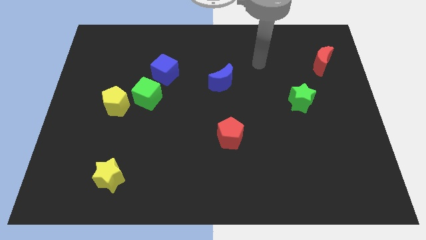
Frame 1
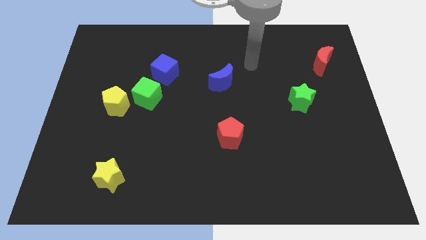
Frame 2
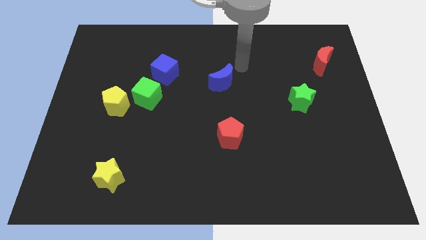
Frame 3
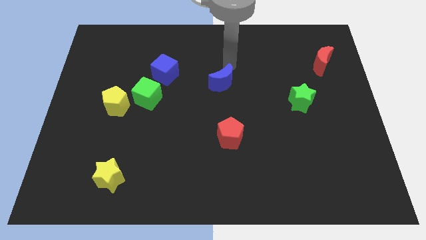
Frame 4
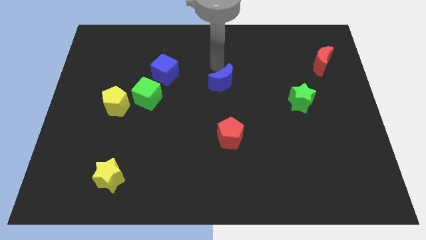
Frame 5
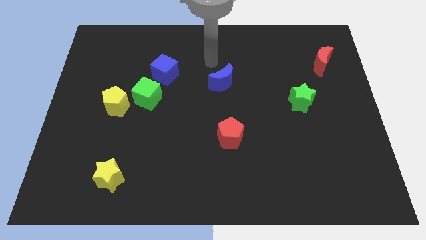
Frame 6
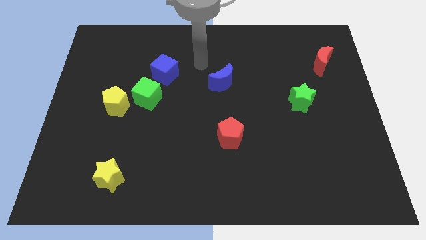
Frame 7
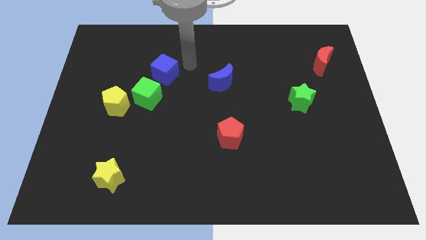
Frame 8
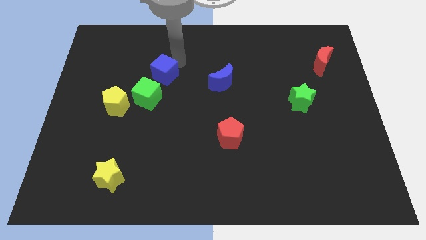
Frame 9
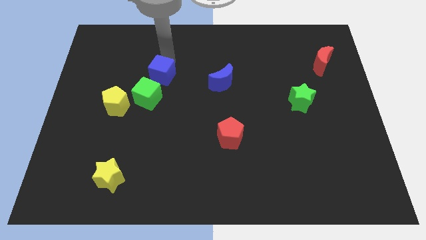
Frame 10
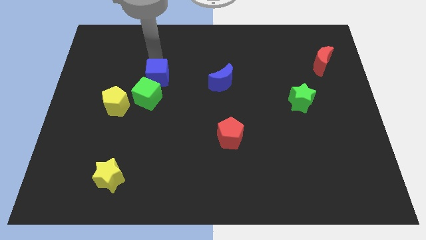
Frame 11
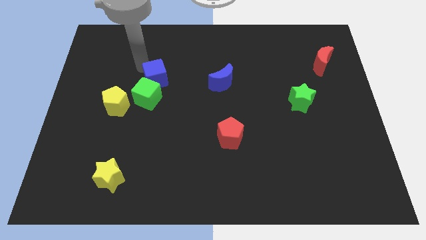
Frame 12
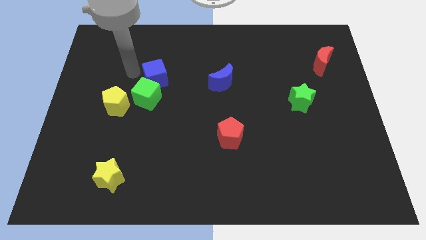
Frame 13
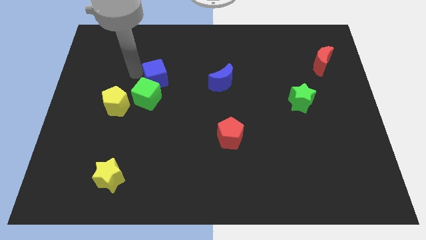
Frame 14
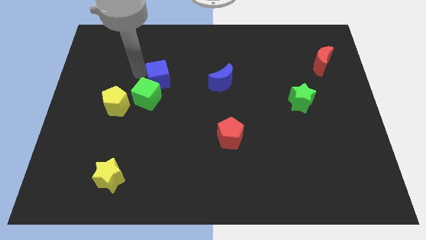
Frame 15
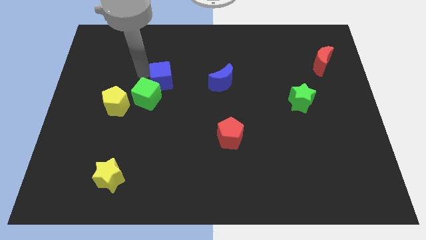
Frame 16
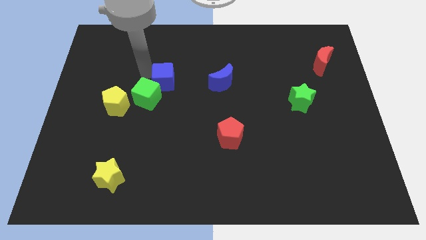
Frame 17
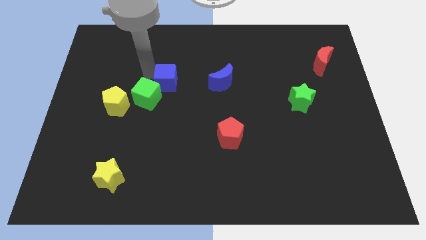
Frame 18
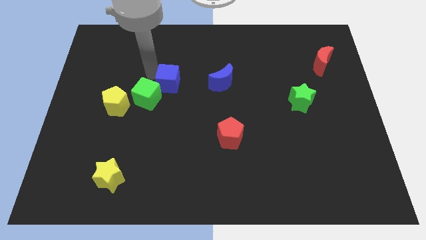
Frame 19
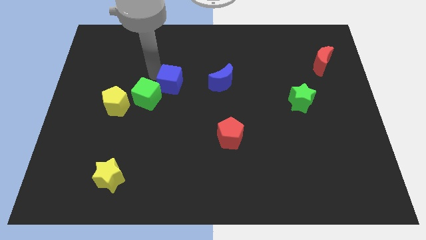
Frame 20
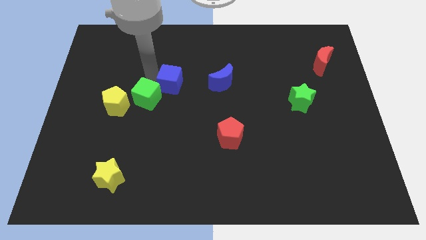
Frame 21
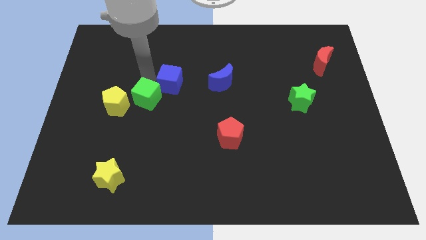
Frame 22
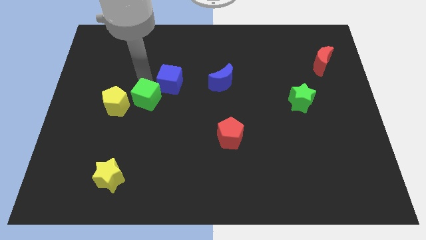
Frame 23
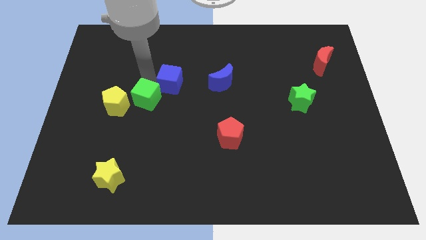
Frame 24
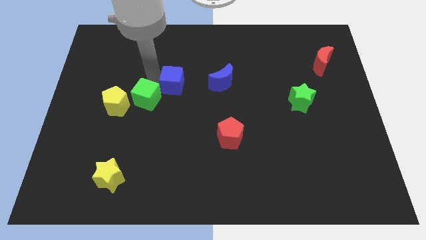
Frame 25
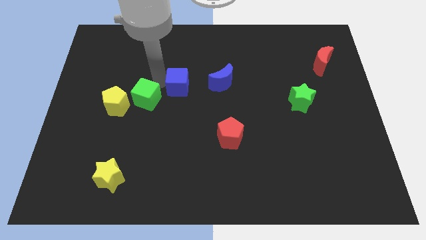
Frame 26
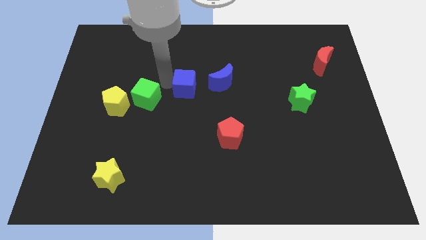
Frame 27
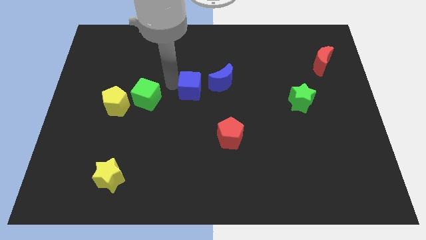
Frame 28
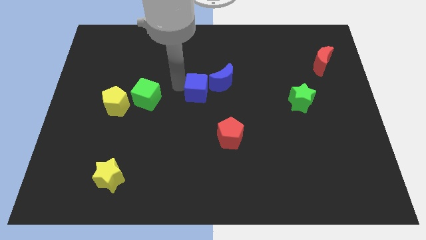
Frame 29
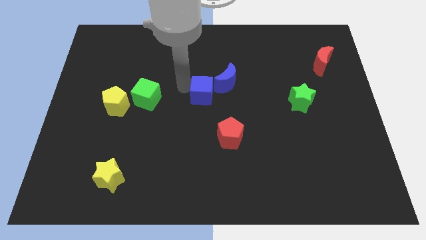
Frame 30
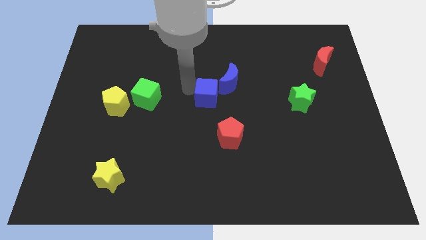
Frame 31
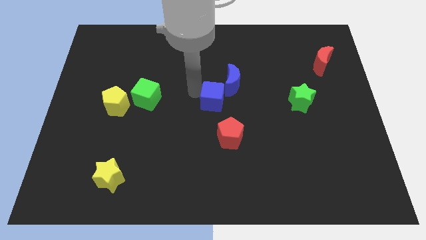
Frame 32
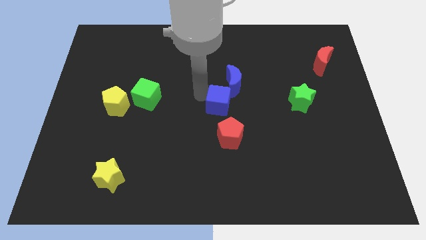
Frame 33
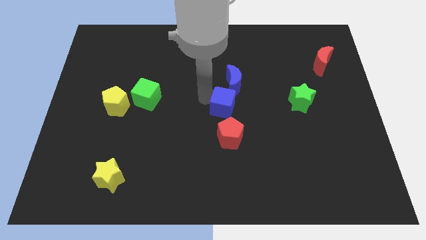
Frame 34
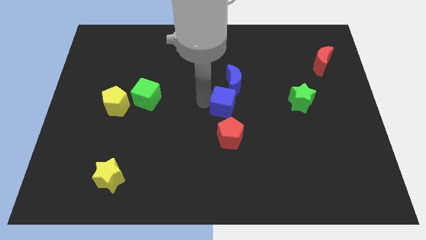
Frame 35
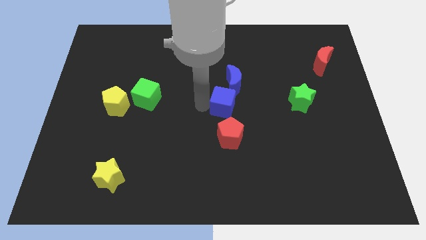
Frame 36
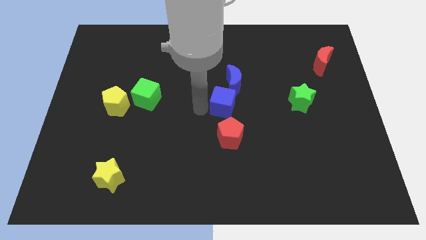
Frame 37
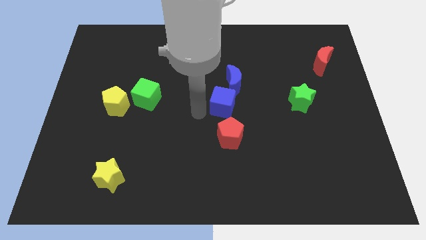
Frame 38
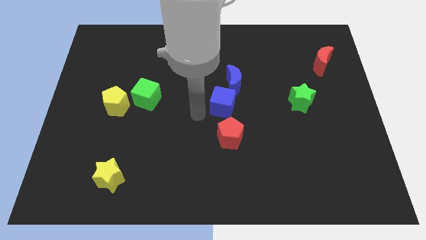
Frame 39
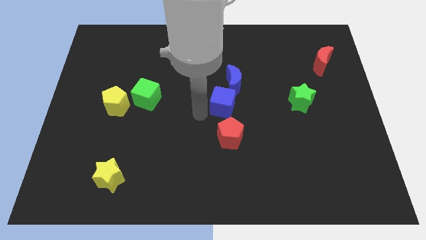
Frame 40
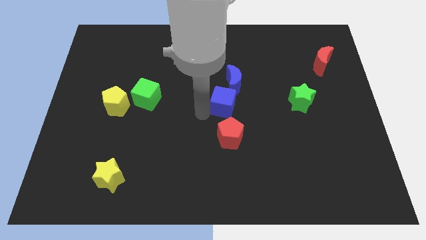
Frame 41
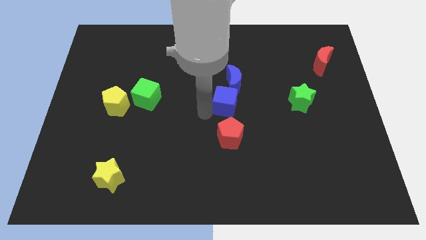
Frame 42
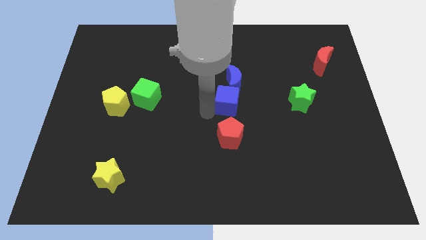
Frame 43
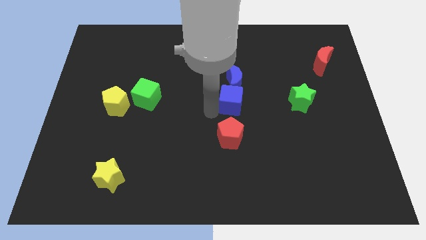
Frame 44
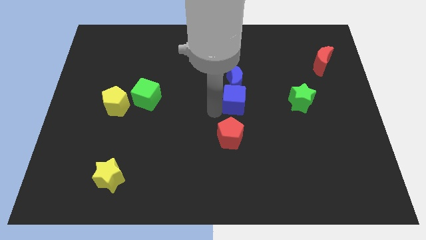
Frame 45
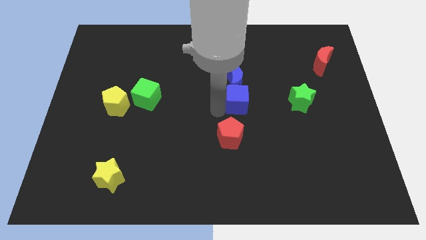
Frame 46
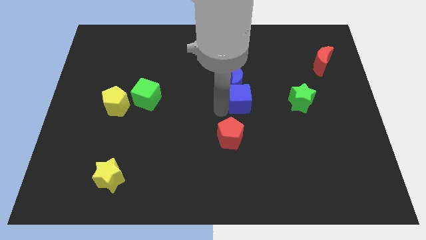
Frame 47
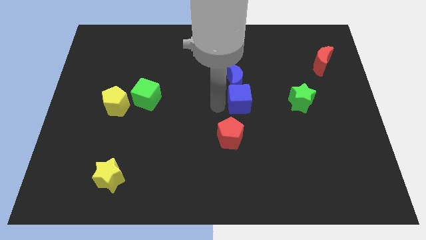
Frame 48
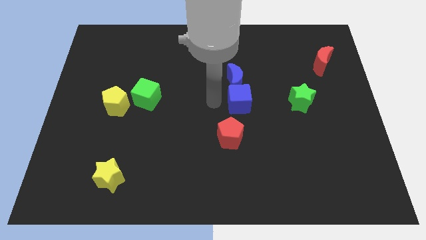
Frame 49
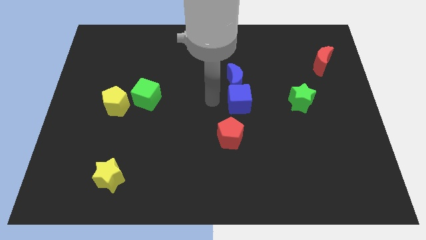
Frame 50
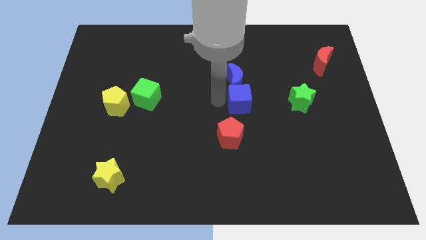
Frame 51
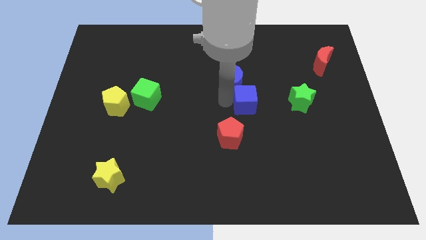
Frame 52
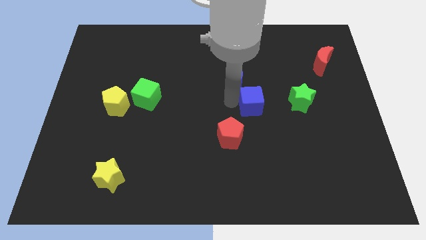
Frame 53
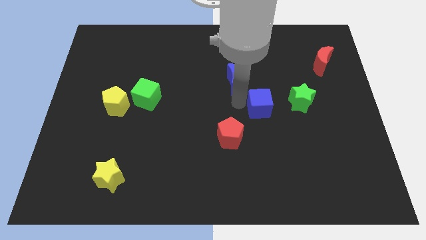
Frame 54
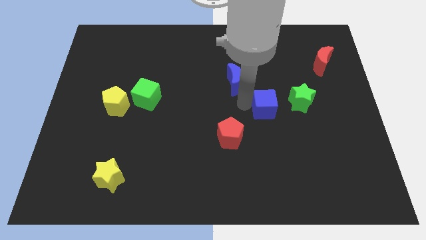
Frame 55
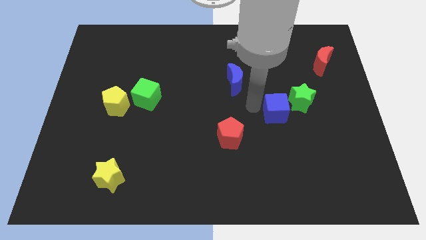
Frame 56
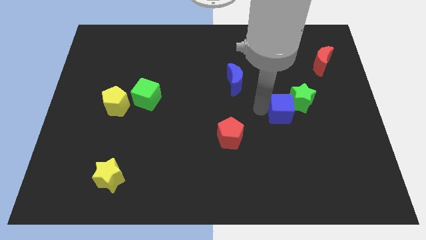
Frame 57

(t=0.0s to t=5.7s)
move the blue cube towards the green star

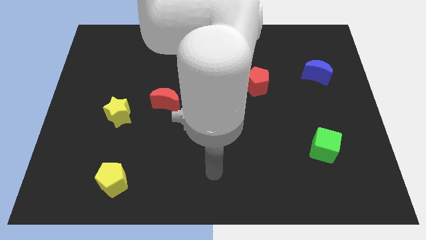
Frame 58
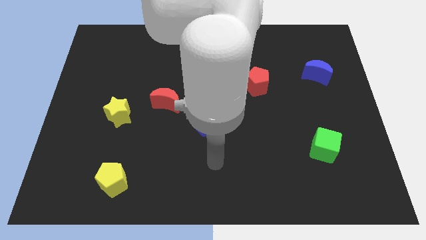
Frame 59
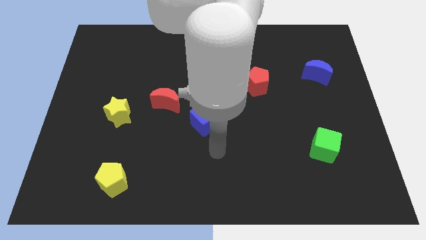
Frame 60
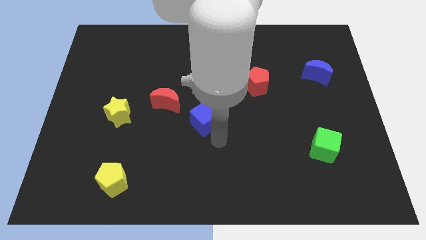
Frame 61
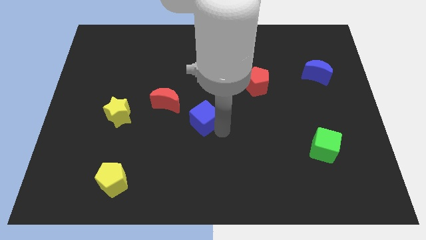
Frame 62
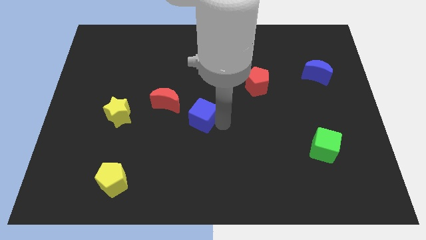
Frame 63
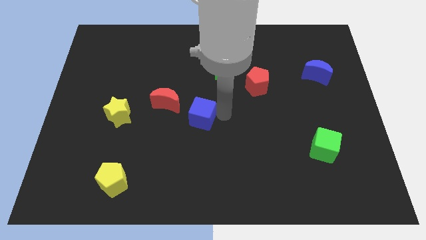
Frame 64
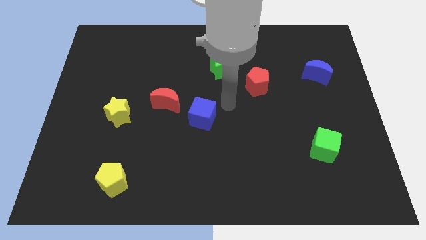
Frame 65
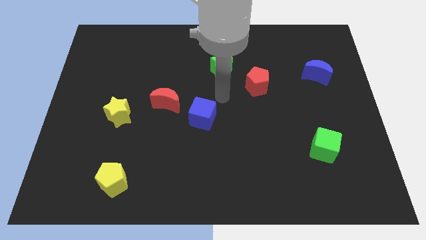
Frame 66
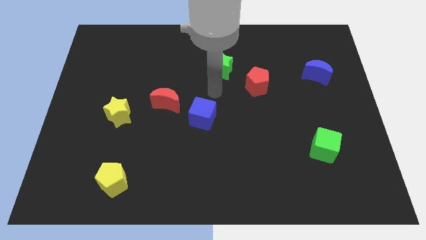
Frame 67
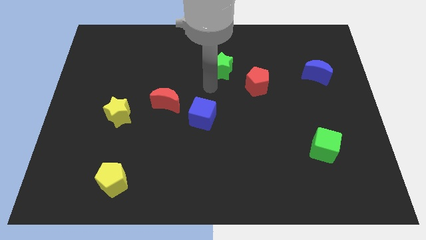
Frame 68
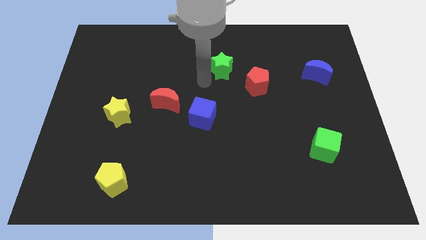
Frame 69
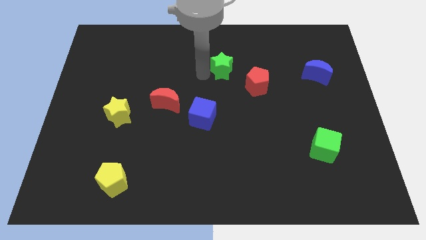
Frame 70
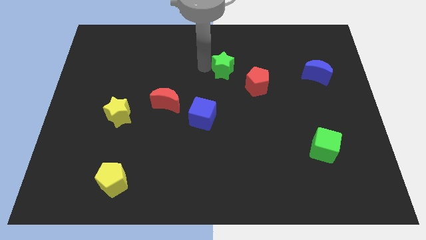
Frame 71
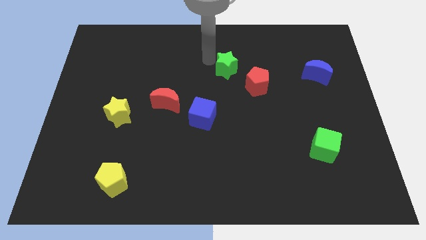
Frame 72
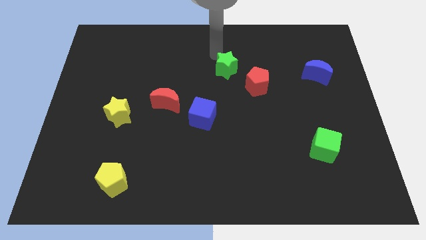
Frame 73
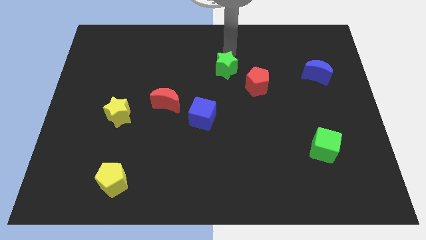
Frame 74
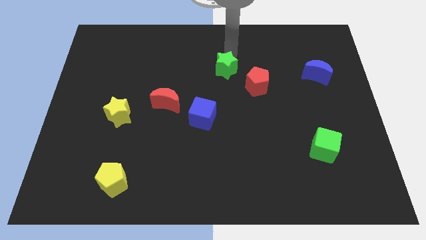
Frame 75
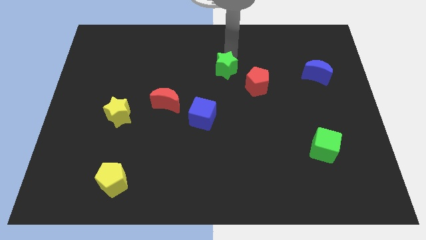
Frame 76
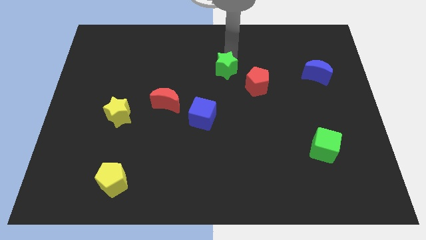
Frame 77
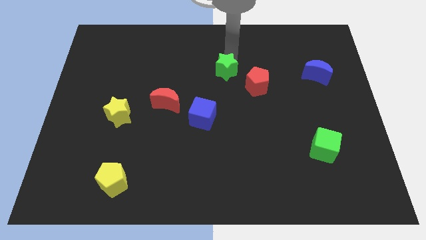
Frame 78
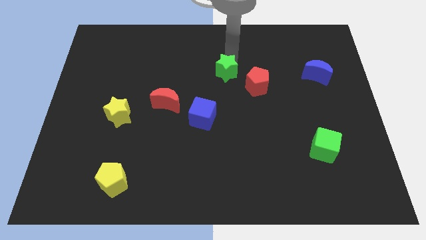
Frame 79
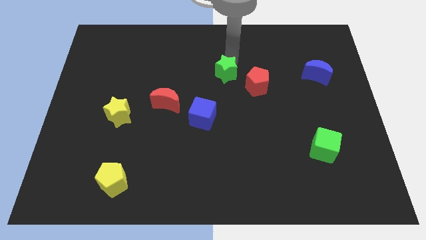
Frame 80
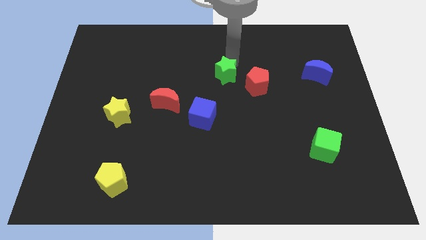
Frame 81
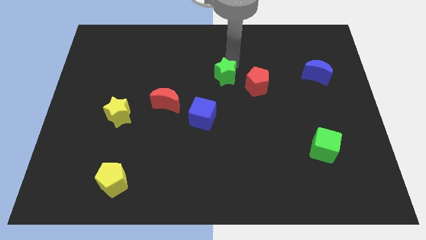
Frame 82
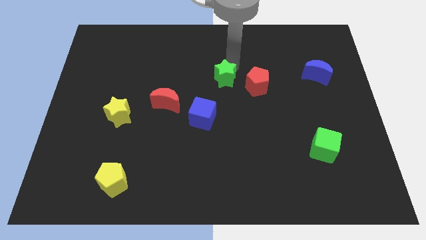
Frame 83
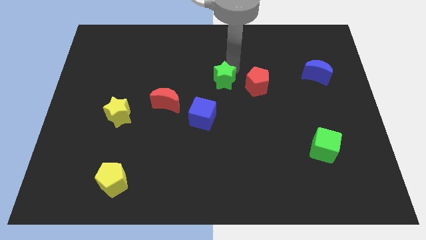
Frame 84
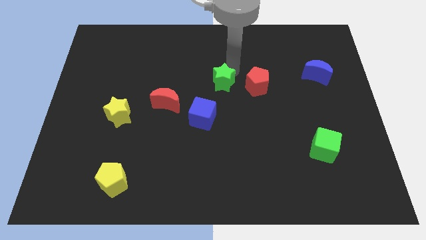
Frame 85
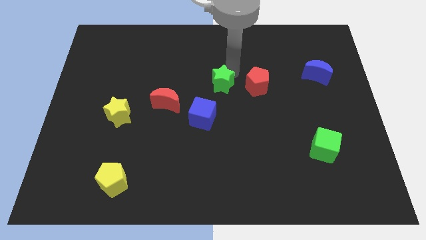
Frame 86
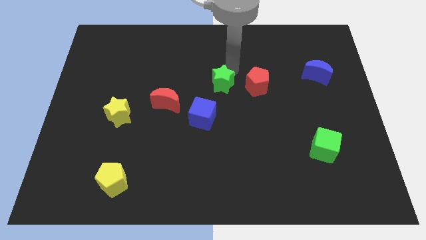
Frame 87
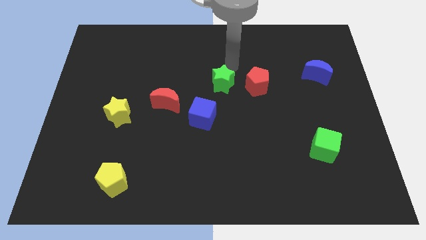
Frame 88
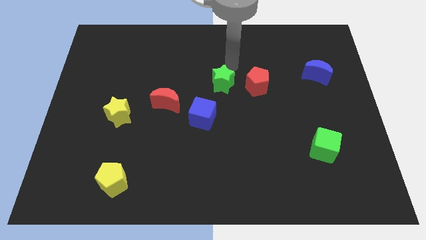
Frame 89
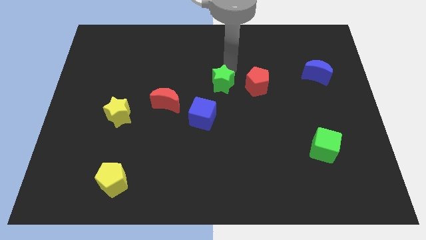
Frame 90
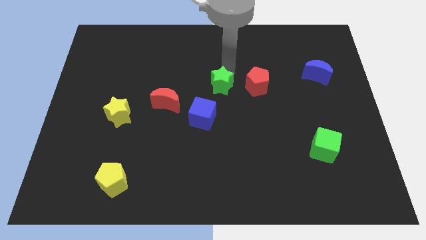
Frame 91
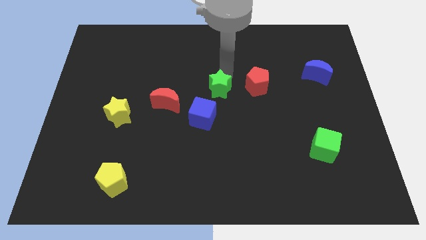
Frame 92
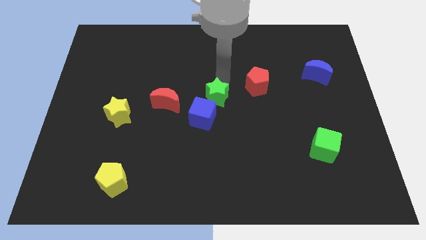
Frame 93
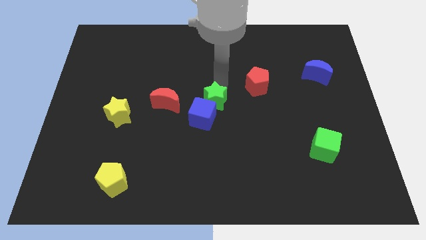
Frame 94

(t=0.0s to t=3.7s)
move the green star close to the blue cube
